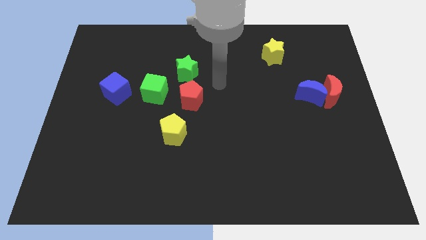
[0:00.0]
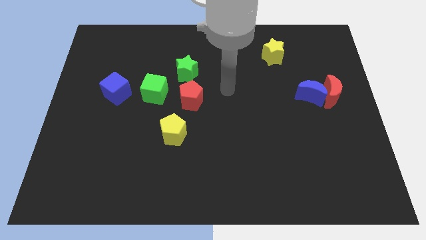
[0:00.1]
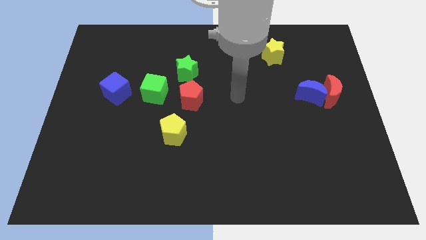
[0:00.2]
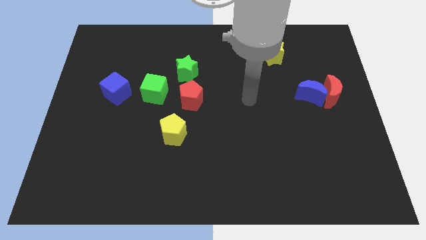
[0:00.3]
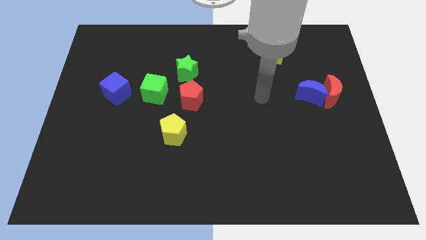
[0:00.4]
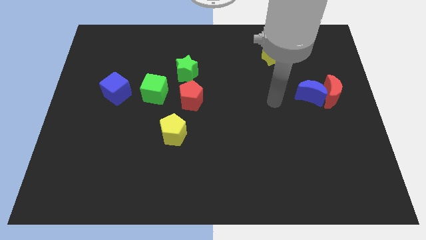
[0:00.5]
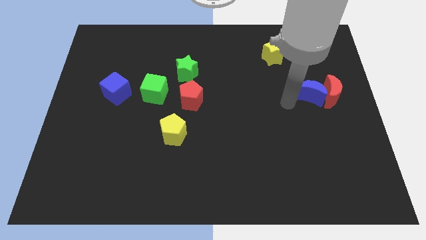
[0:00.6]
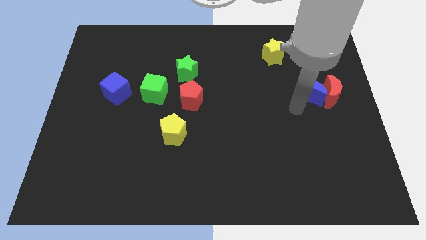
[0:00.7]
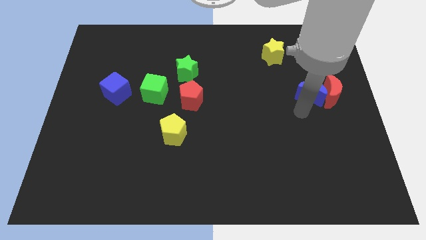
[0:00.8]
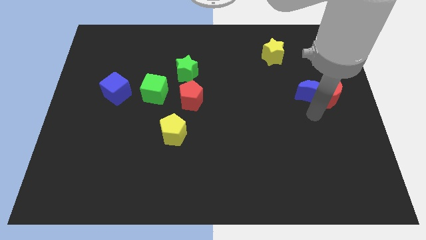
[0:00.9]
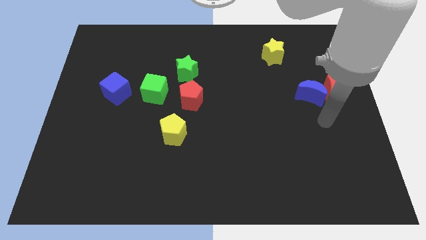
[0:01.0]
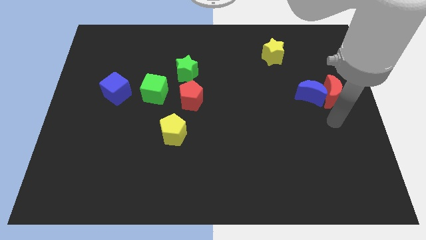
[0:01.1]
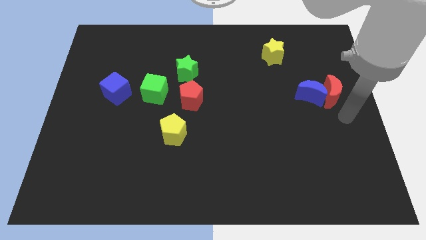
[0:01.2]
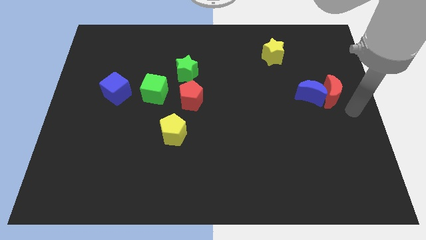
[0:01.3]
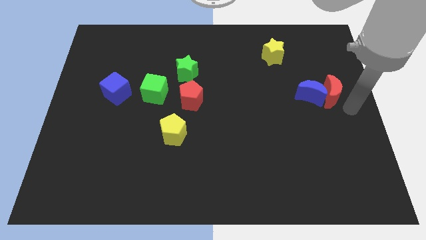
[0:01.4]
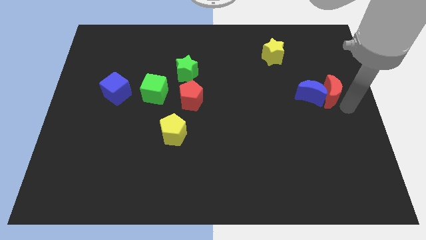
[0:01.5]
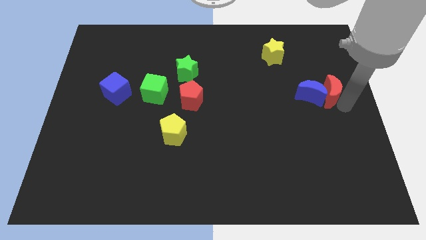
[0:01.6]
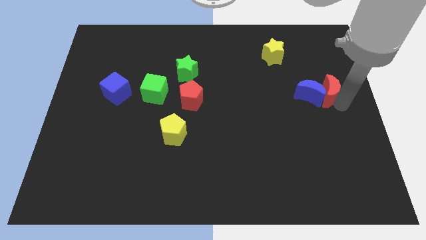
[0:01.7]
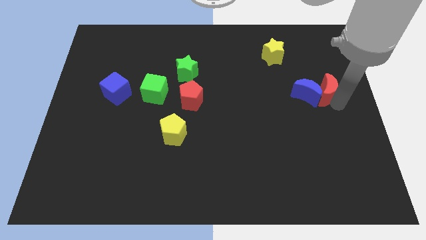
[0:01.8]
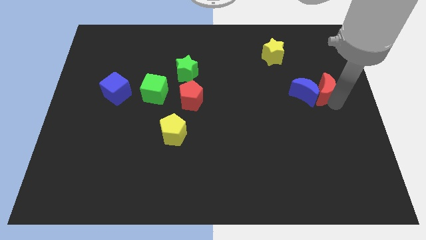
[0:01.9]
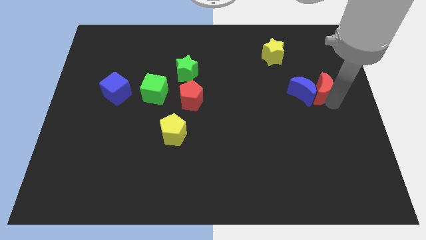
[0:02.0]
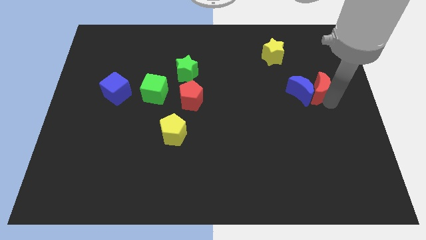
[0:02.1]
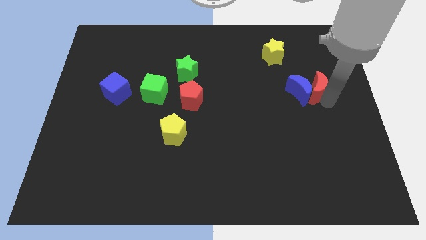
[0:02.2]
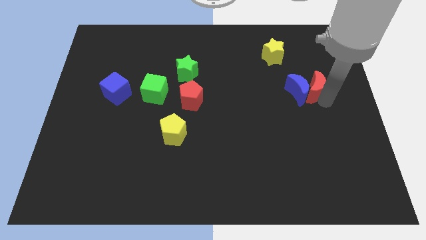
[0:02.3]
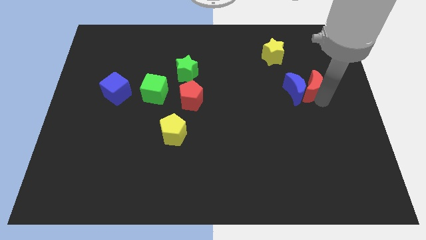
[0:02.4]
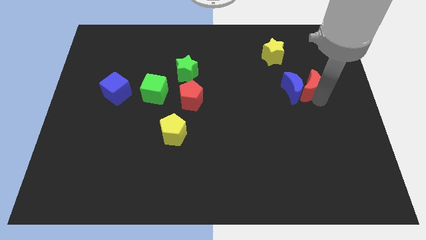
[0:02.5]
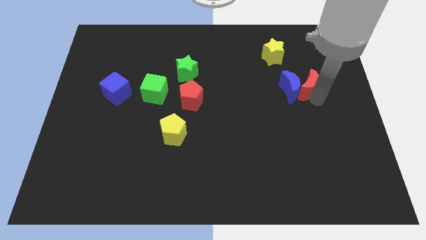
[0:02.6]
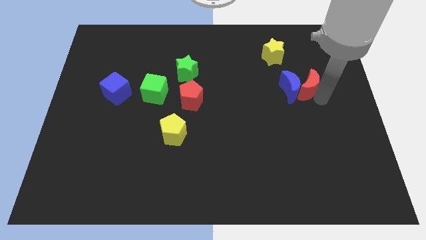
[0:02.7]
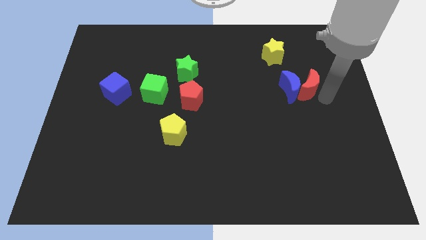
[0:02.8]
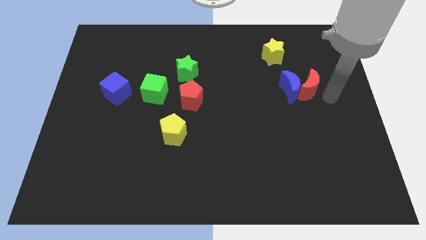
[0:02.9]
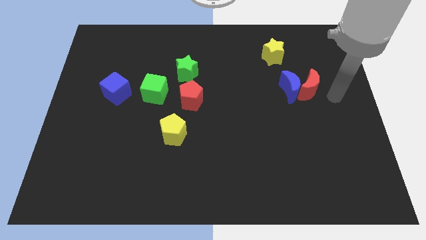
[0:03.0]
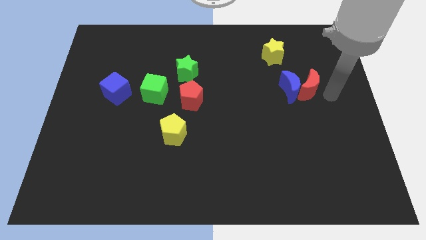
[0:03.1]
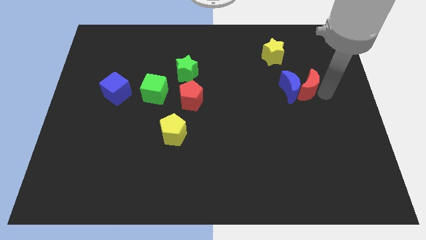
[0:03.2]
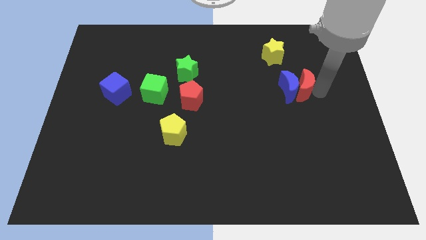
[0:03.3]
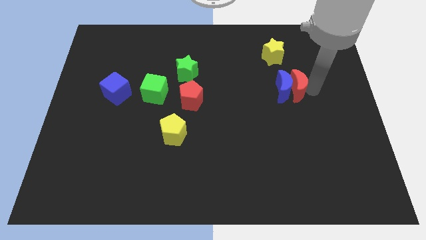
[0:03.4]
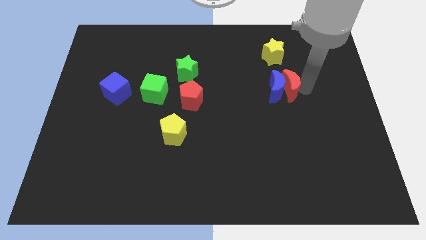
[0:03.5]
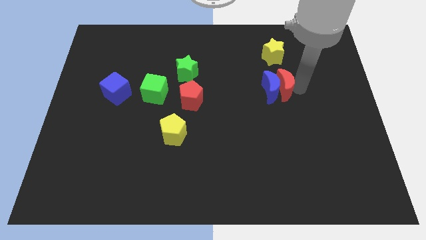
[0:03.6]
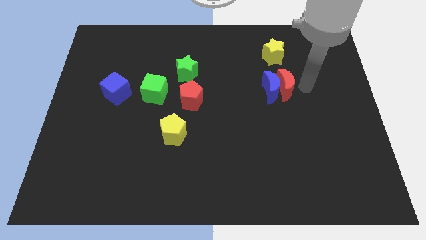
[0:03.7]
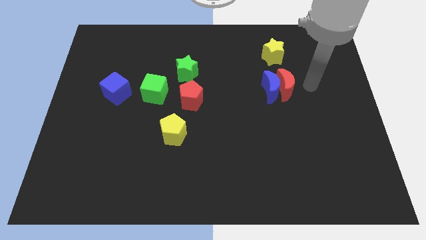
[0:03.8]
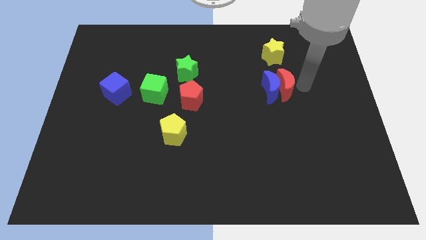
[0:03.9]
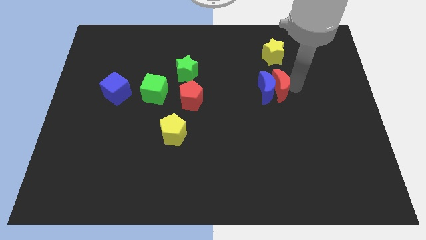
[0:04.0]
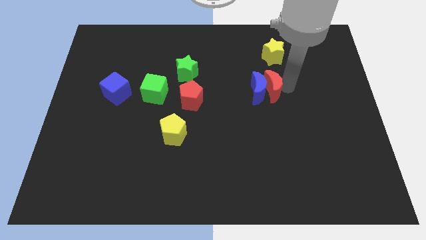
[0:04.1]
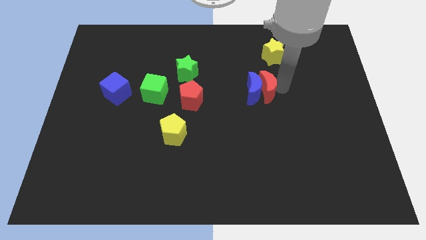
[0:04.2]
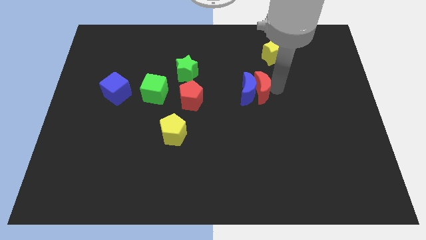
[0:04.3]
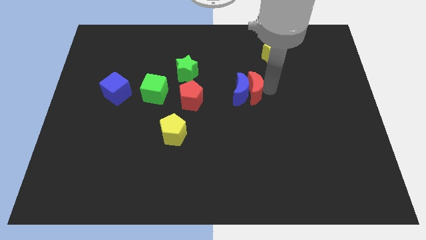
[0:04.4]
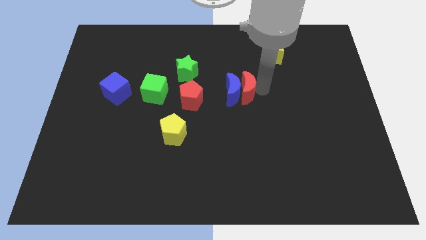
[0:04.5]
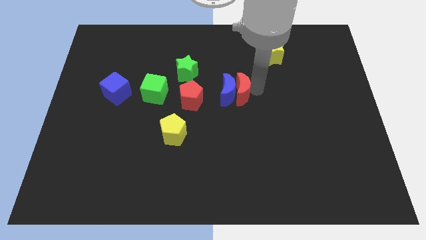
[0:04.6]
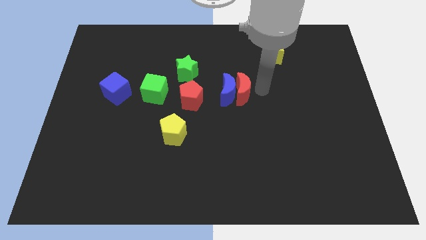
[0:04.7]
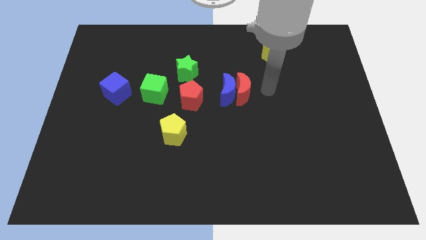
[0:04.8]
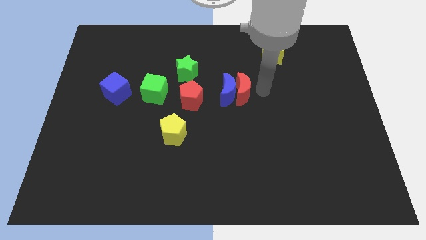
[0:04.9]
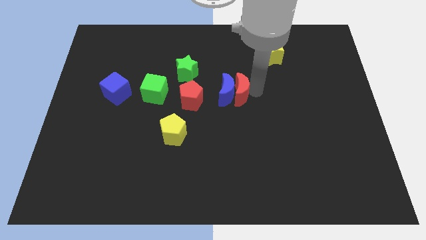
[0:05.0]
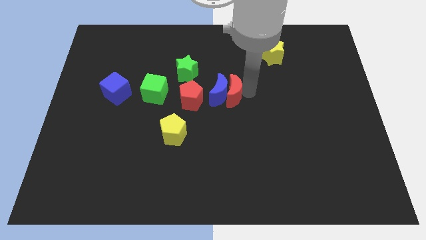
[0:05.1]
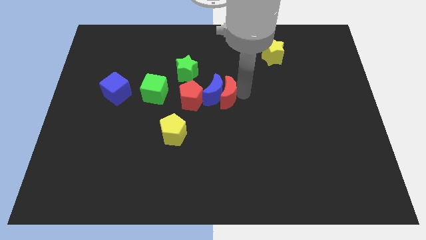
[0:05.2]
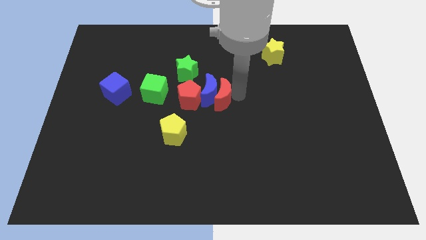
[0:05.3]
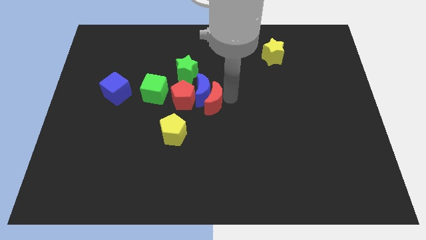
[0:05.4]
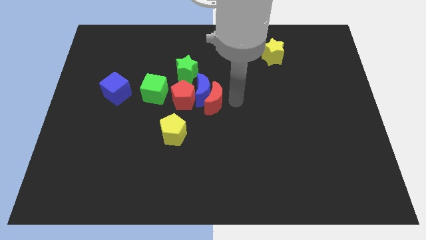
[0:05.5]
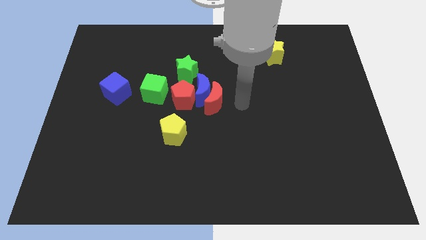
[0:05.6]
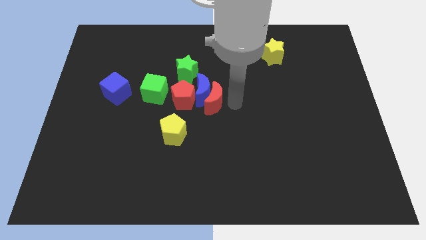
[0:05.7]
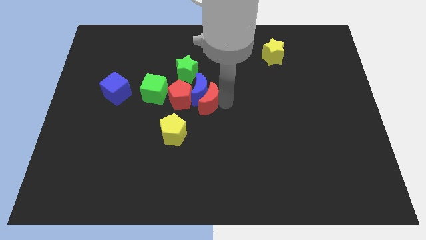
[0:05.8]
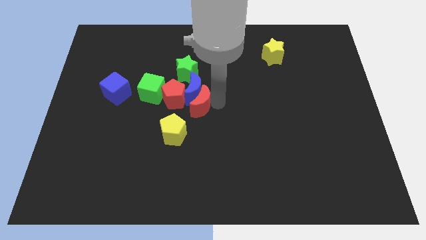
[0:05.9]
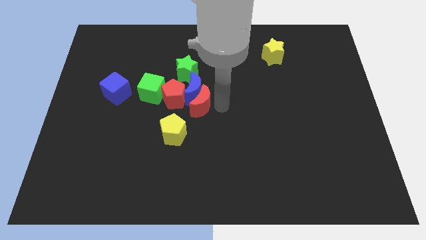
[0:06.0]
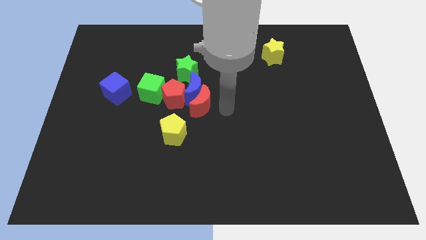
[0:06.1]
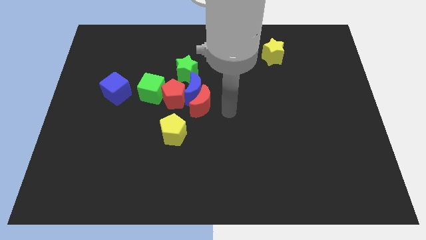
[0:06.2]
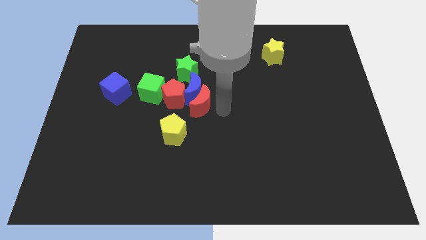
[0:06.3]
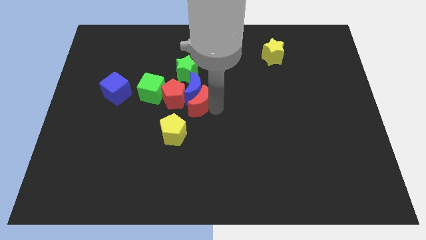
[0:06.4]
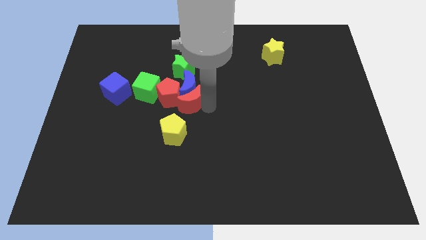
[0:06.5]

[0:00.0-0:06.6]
push the red moon to the red pentagon

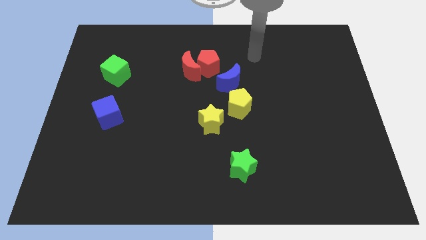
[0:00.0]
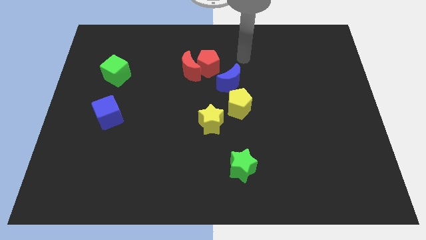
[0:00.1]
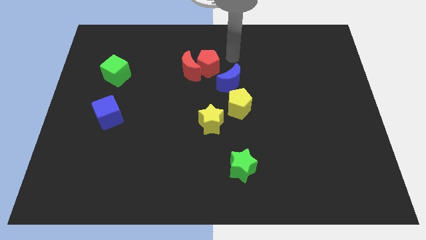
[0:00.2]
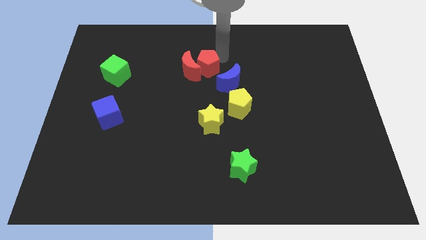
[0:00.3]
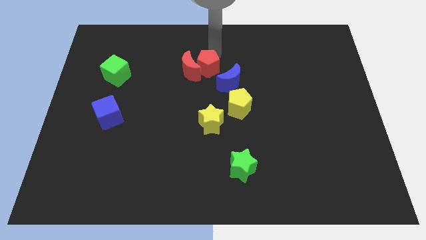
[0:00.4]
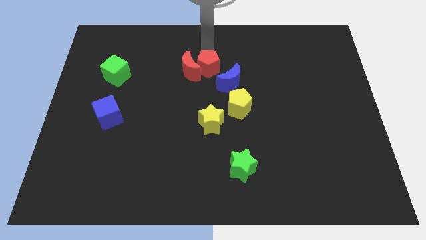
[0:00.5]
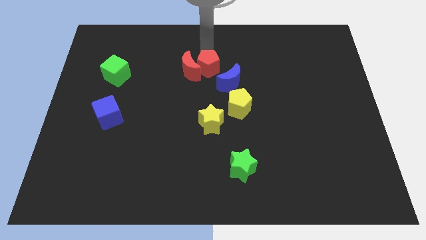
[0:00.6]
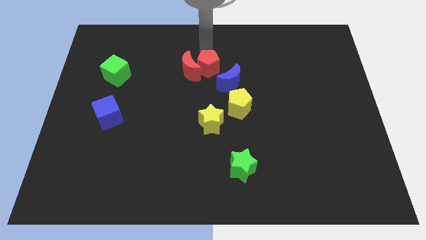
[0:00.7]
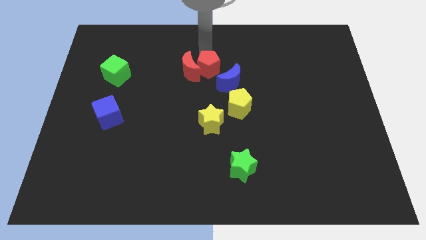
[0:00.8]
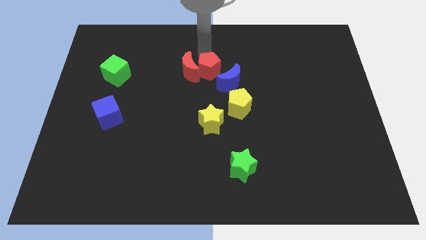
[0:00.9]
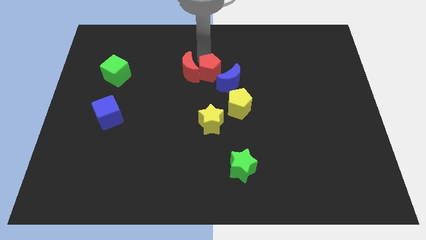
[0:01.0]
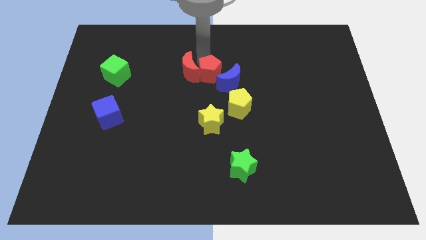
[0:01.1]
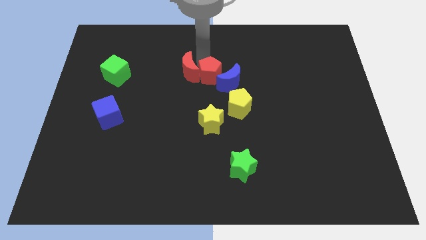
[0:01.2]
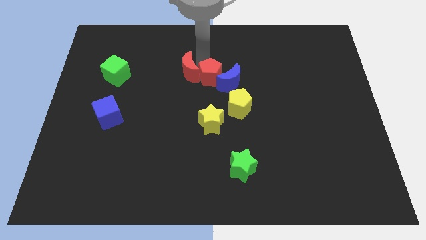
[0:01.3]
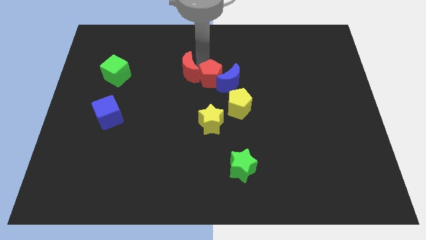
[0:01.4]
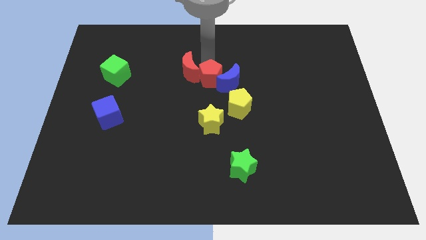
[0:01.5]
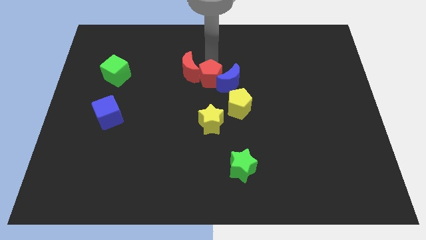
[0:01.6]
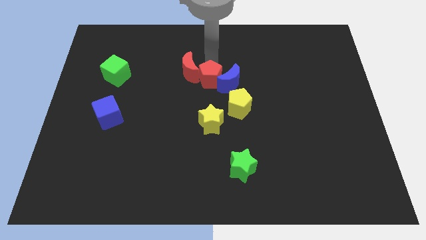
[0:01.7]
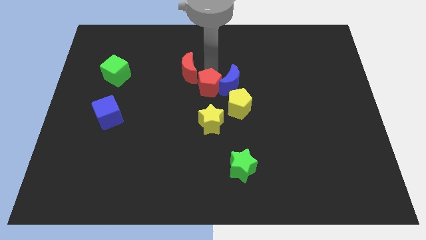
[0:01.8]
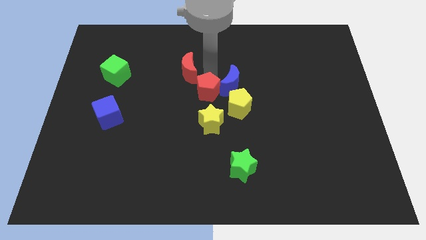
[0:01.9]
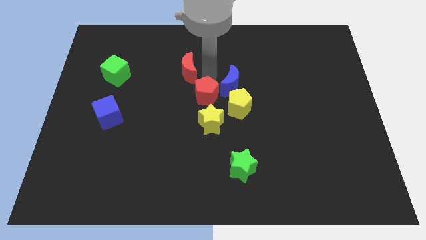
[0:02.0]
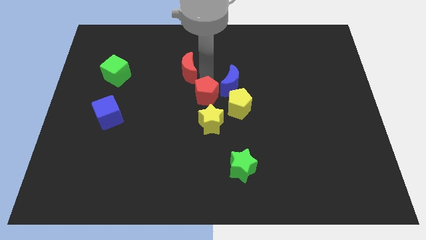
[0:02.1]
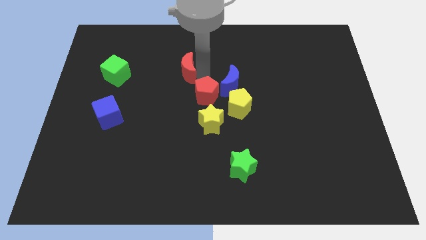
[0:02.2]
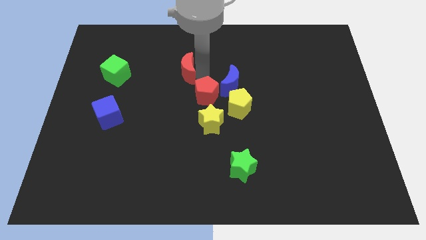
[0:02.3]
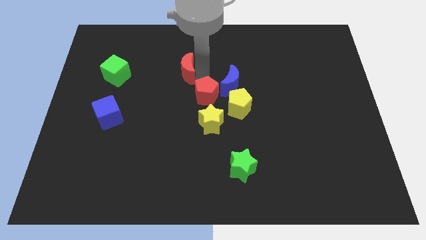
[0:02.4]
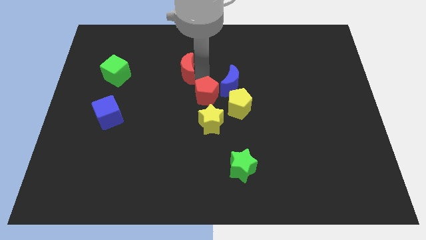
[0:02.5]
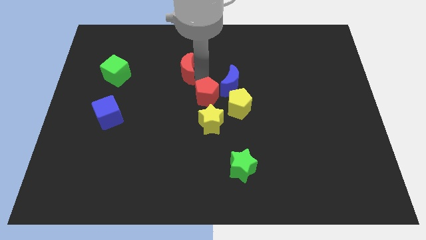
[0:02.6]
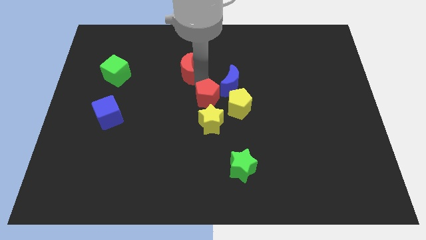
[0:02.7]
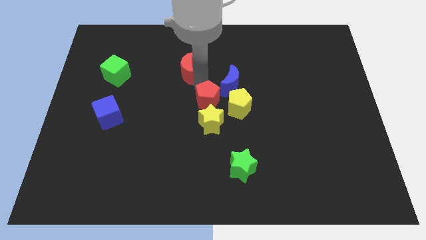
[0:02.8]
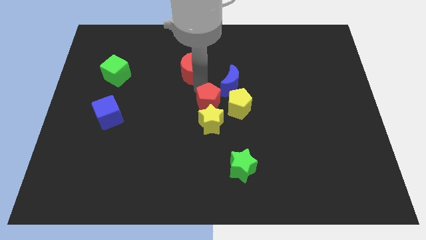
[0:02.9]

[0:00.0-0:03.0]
slide the red pentagon towards the yellow star
